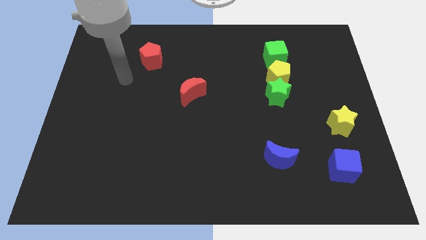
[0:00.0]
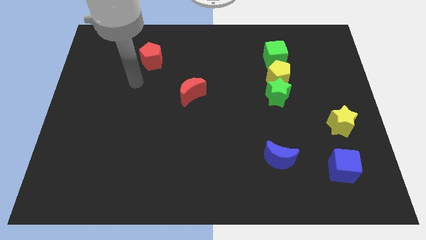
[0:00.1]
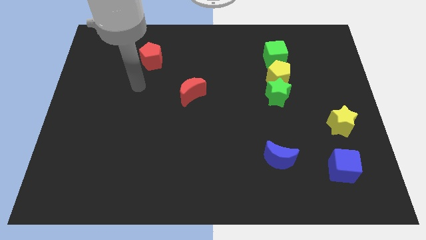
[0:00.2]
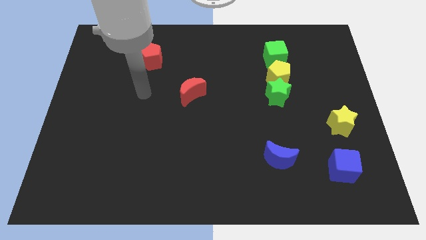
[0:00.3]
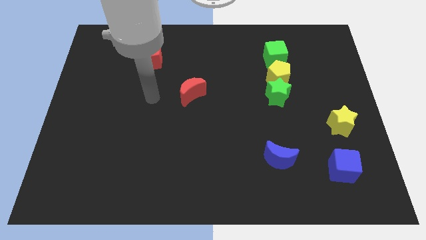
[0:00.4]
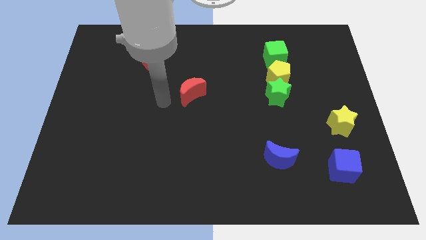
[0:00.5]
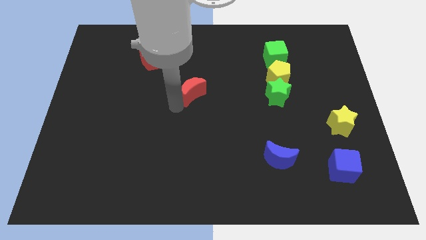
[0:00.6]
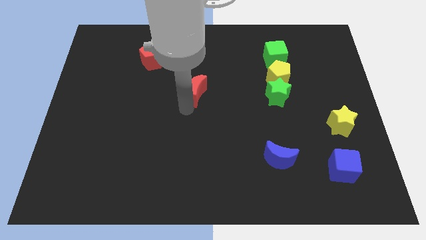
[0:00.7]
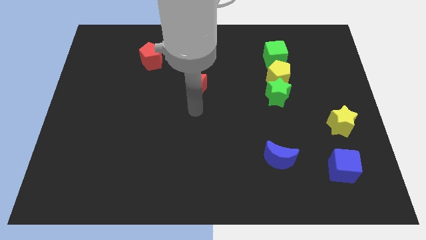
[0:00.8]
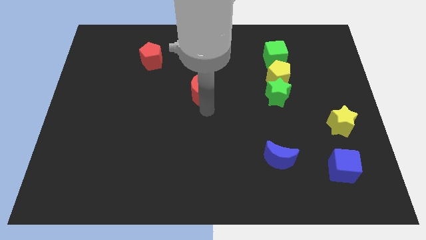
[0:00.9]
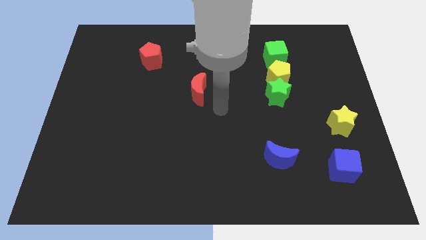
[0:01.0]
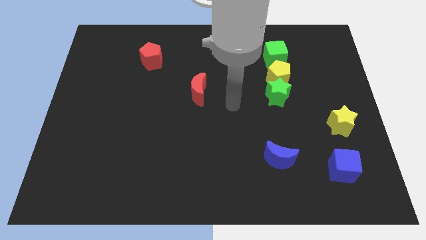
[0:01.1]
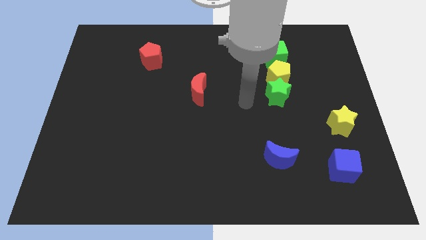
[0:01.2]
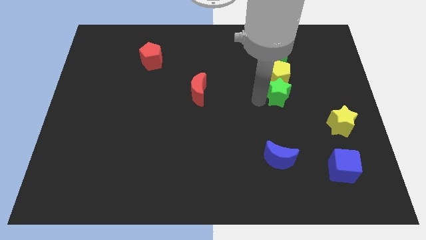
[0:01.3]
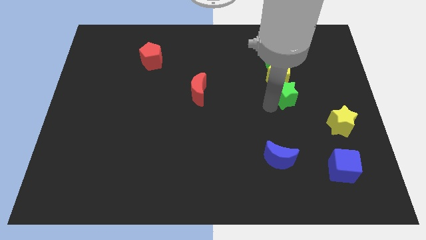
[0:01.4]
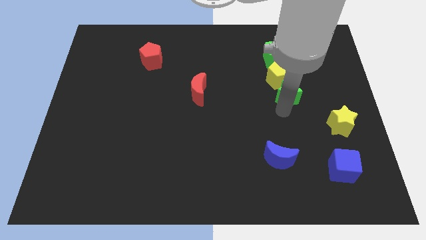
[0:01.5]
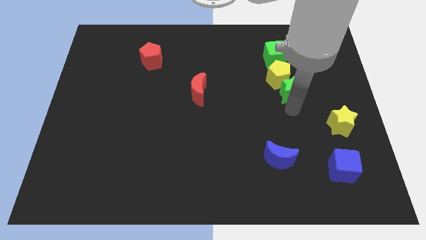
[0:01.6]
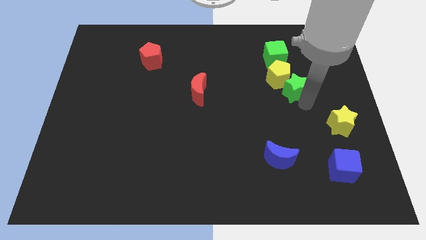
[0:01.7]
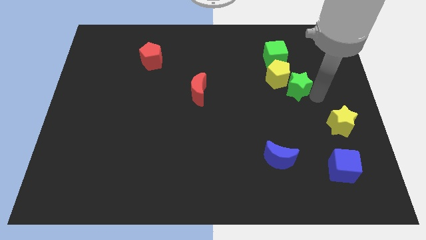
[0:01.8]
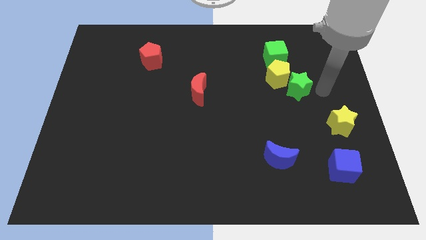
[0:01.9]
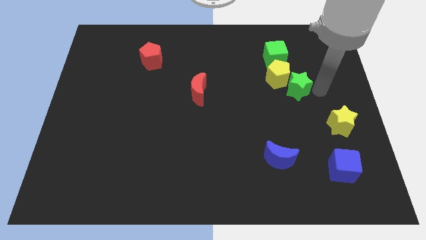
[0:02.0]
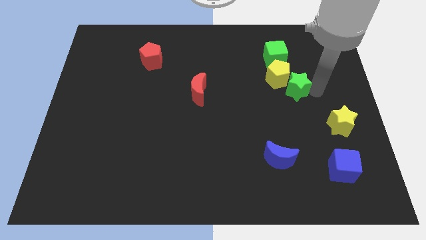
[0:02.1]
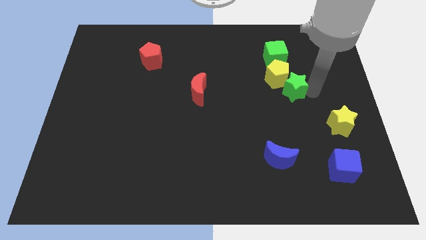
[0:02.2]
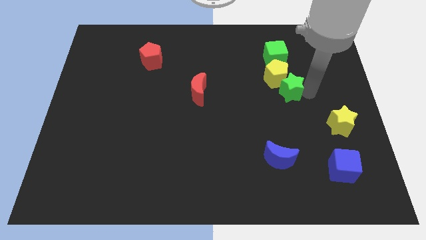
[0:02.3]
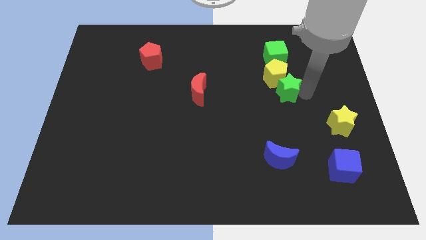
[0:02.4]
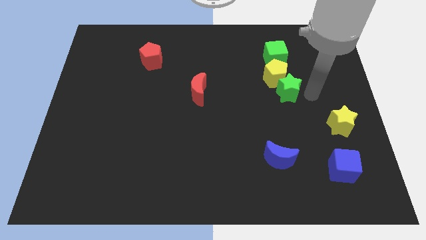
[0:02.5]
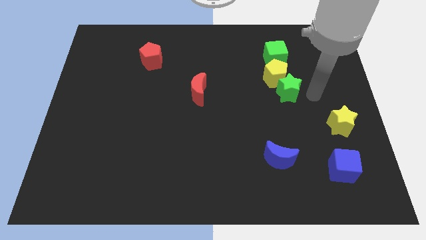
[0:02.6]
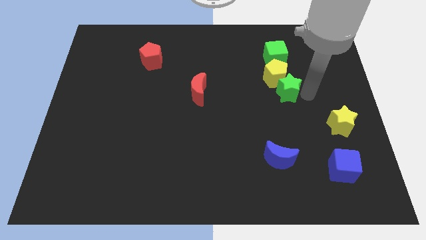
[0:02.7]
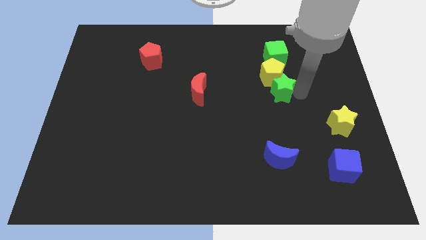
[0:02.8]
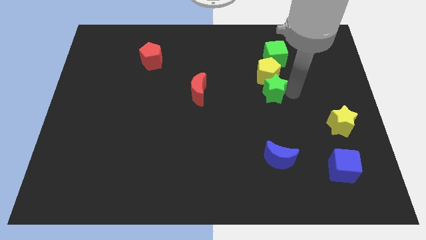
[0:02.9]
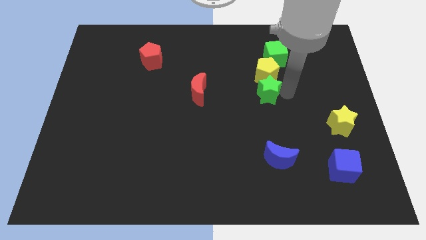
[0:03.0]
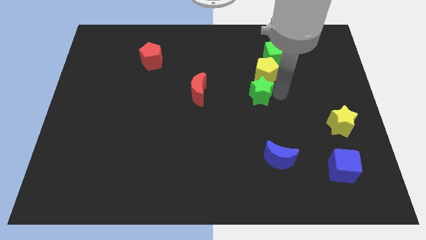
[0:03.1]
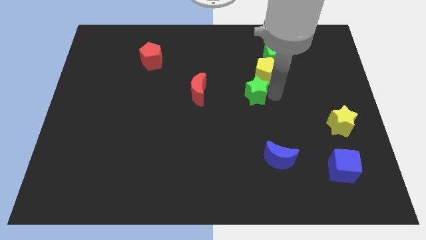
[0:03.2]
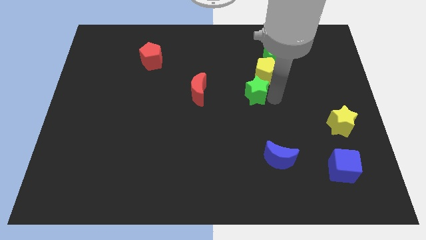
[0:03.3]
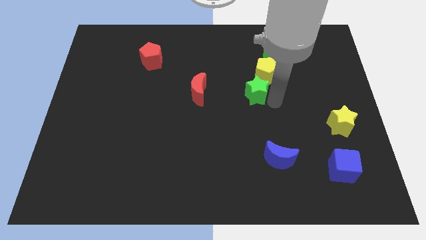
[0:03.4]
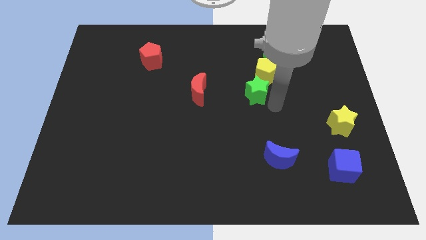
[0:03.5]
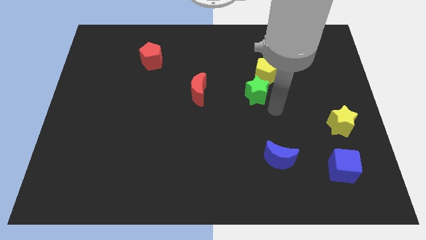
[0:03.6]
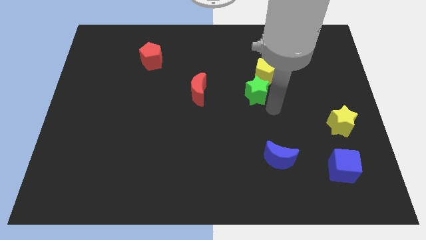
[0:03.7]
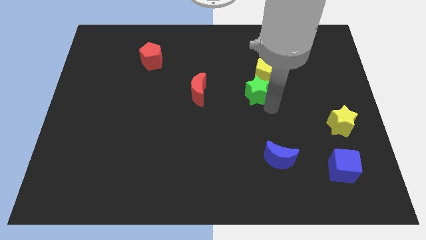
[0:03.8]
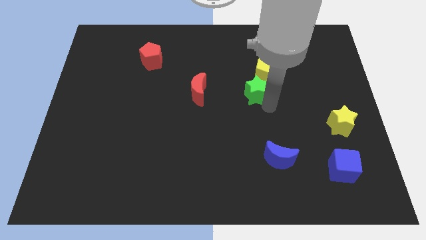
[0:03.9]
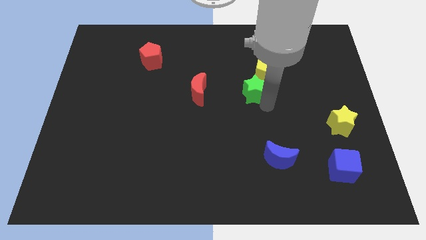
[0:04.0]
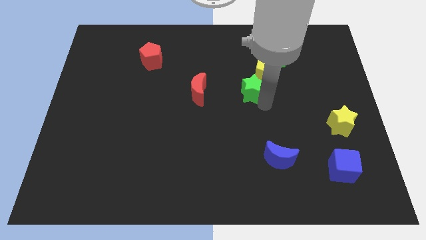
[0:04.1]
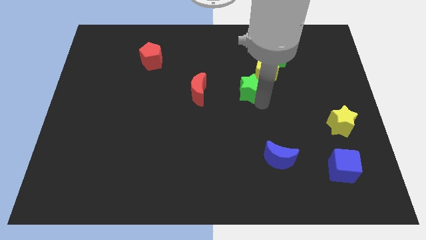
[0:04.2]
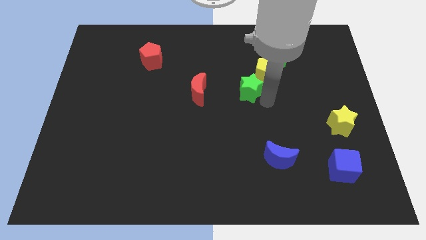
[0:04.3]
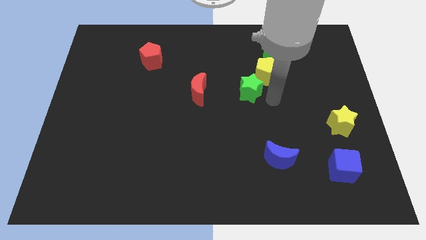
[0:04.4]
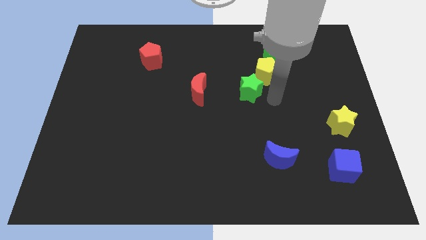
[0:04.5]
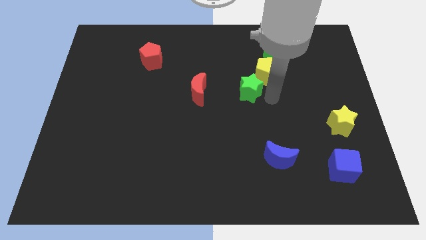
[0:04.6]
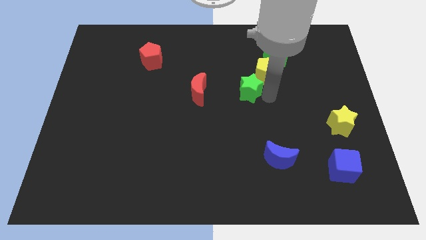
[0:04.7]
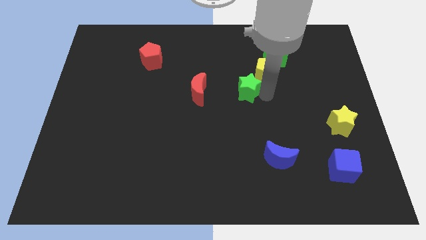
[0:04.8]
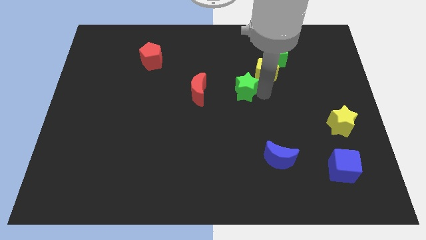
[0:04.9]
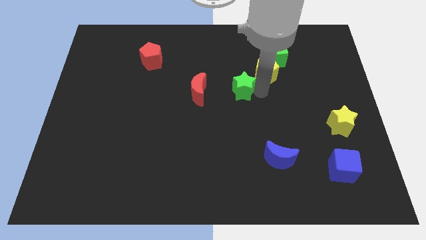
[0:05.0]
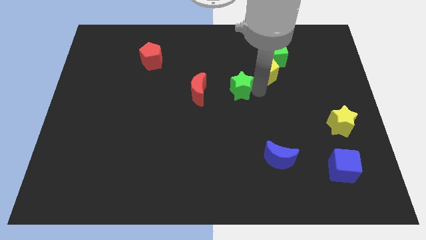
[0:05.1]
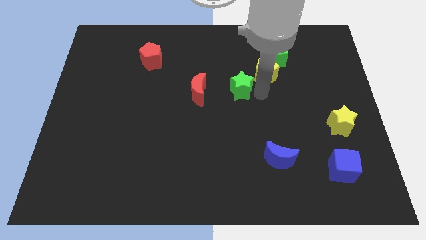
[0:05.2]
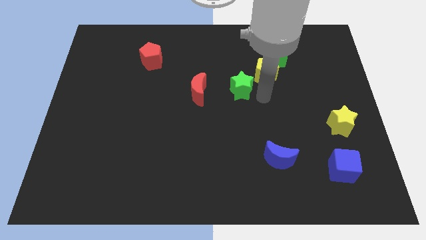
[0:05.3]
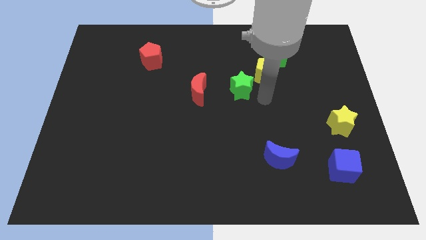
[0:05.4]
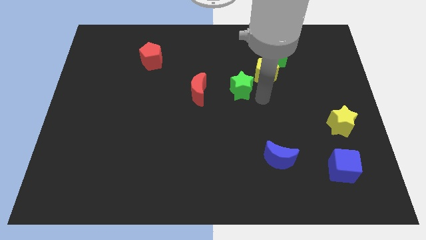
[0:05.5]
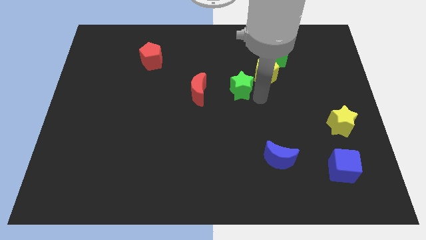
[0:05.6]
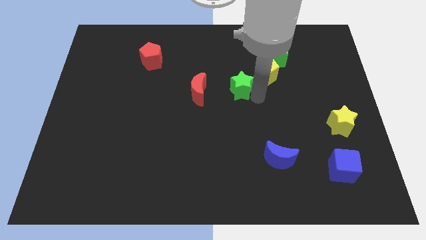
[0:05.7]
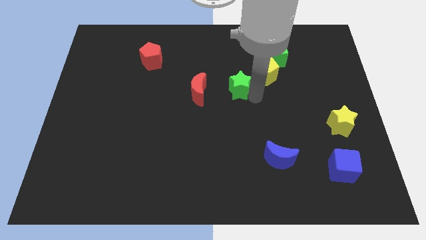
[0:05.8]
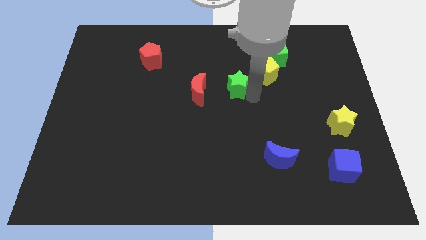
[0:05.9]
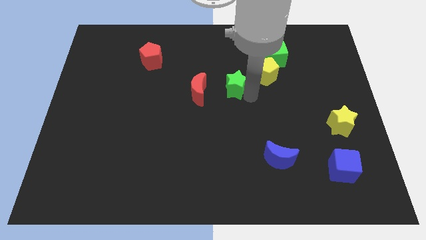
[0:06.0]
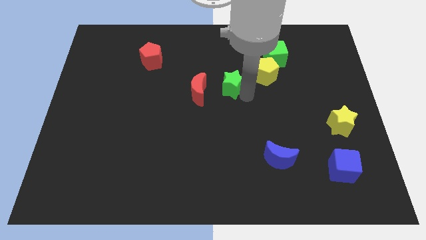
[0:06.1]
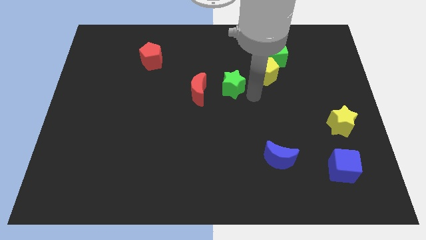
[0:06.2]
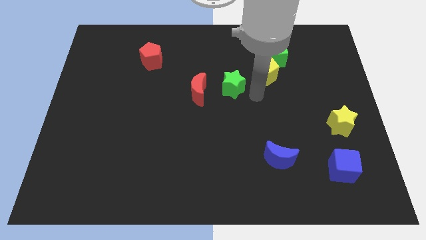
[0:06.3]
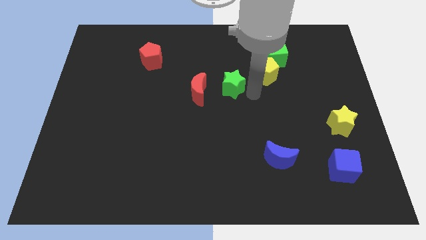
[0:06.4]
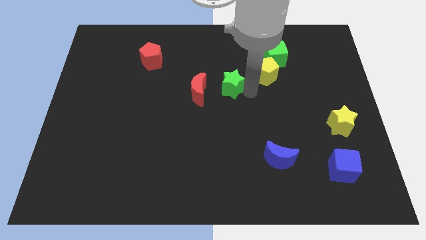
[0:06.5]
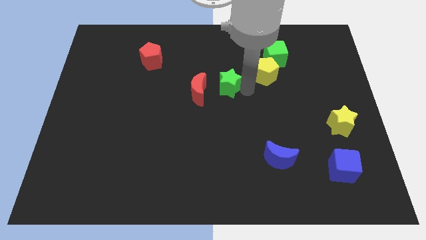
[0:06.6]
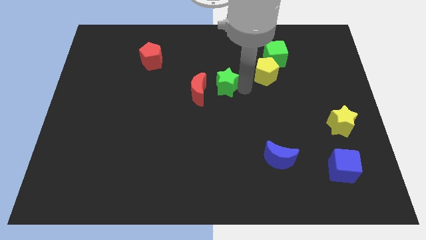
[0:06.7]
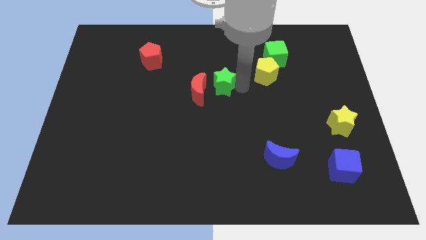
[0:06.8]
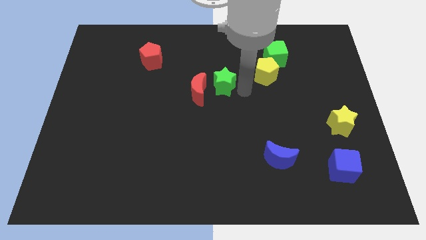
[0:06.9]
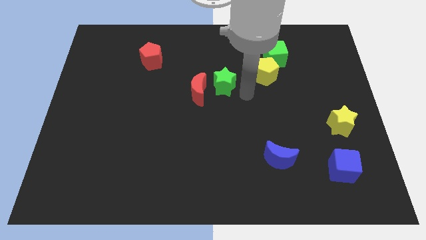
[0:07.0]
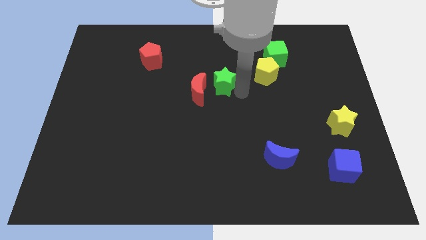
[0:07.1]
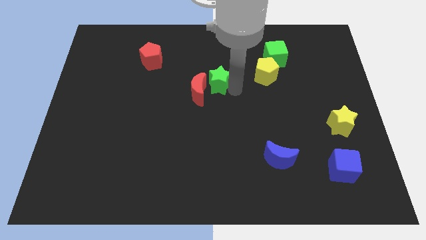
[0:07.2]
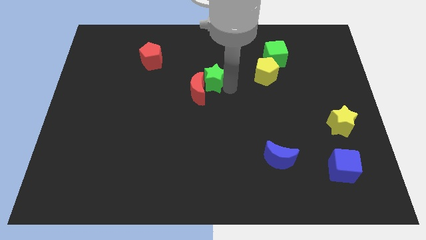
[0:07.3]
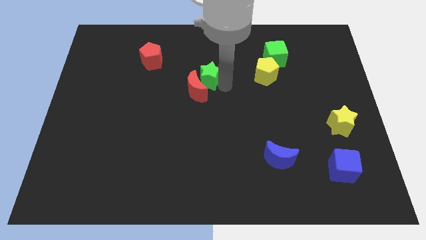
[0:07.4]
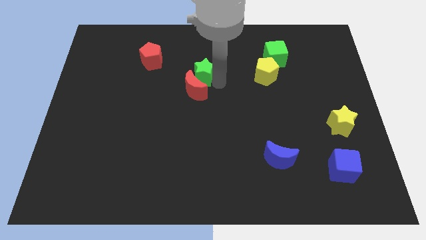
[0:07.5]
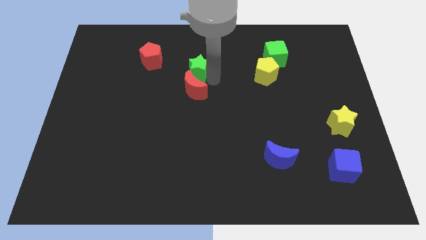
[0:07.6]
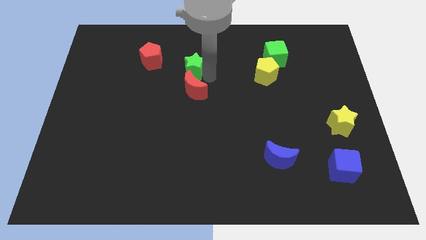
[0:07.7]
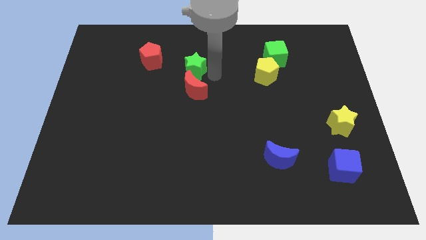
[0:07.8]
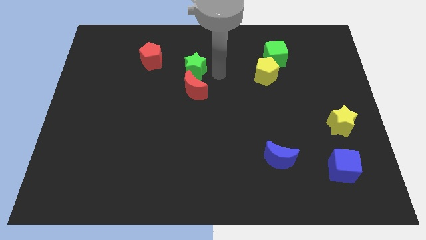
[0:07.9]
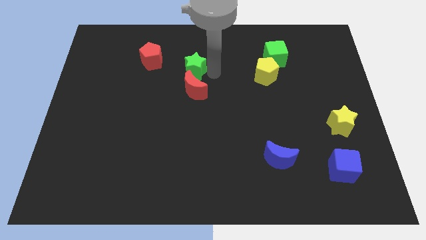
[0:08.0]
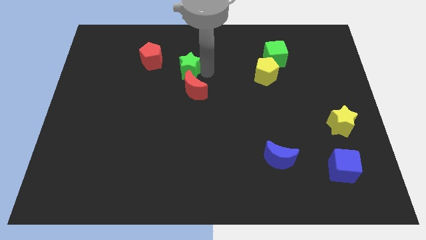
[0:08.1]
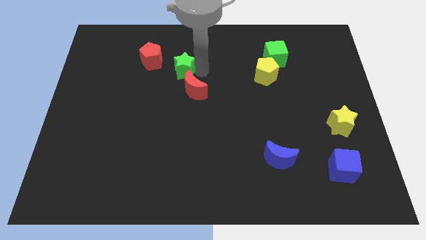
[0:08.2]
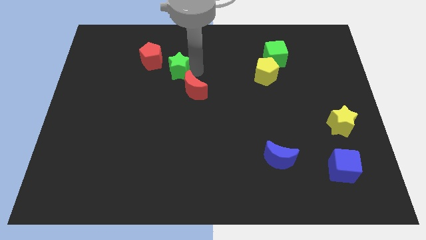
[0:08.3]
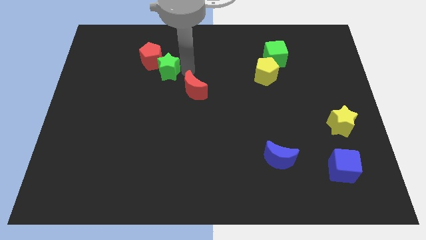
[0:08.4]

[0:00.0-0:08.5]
put the green star next to the red pentagon
